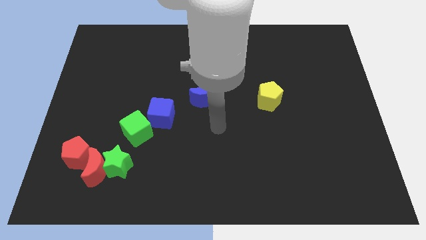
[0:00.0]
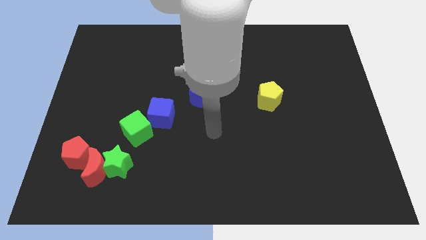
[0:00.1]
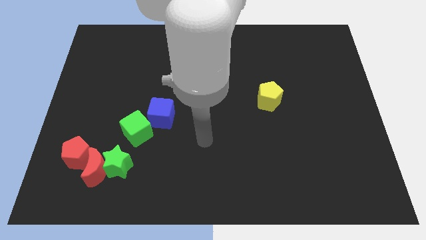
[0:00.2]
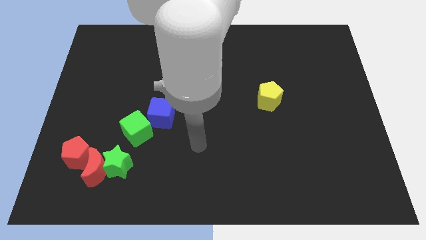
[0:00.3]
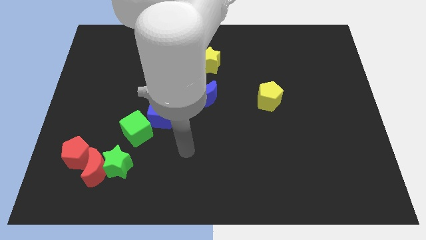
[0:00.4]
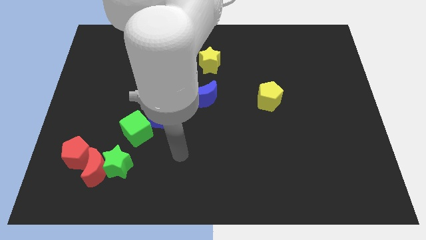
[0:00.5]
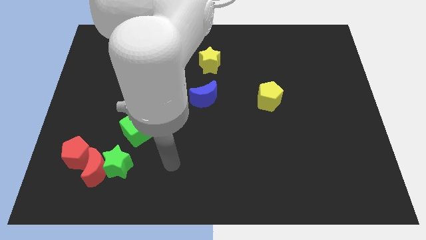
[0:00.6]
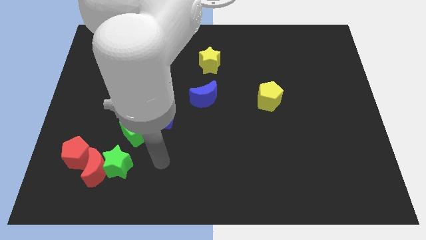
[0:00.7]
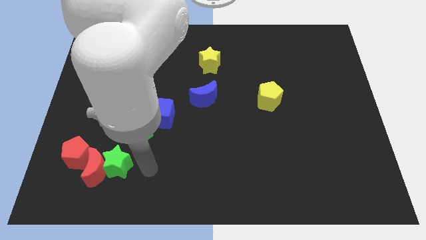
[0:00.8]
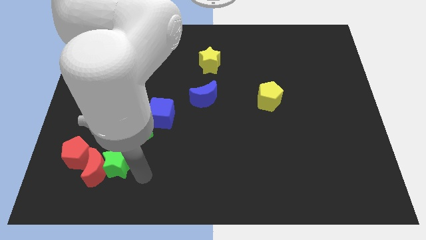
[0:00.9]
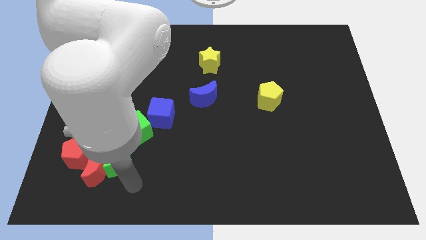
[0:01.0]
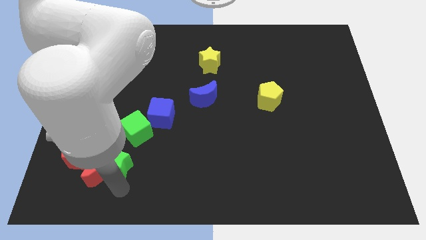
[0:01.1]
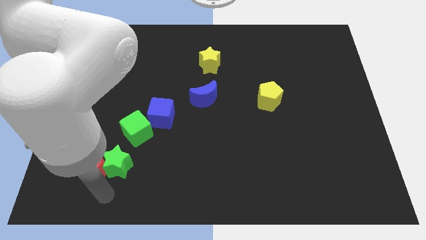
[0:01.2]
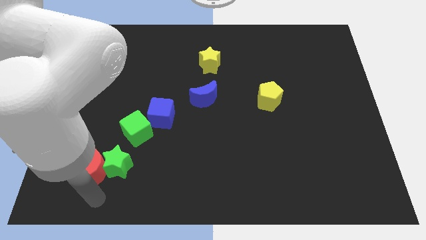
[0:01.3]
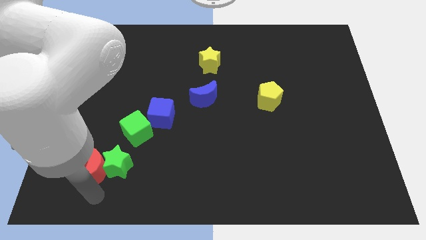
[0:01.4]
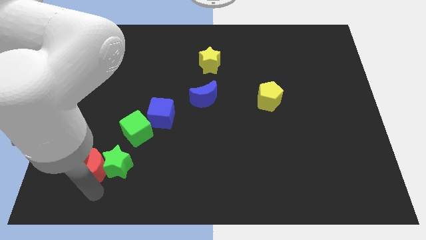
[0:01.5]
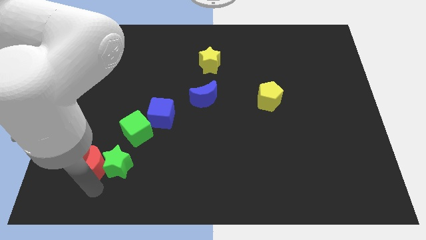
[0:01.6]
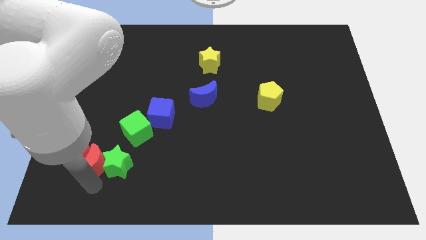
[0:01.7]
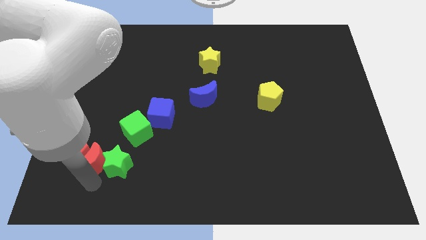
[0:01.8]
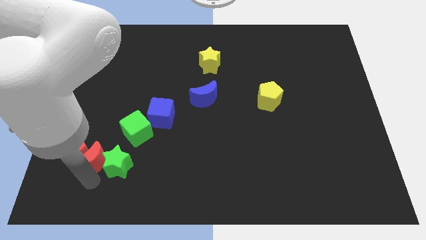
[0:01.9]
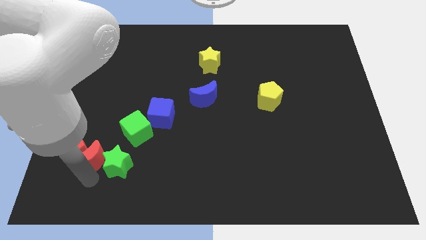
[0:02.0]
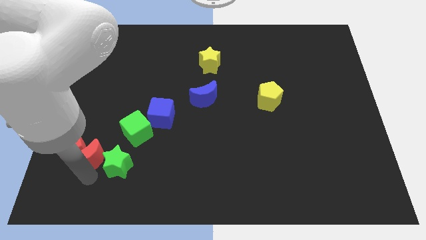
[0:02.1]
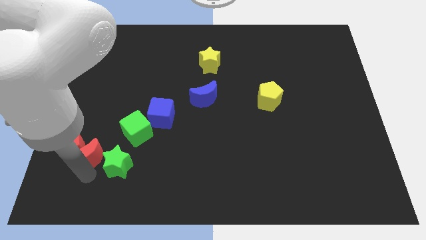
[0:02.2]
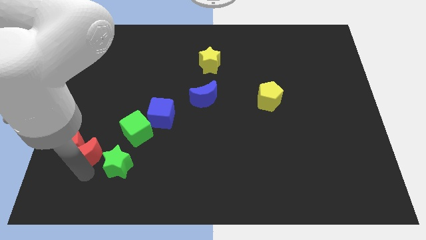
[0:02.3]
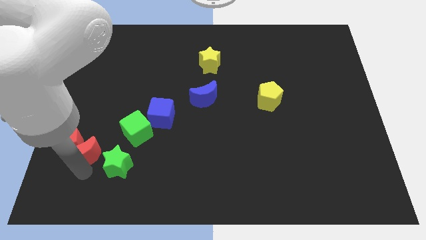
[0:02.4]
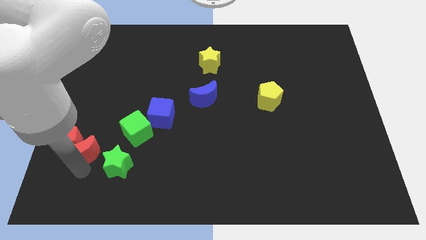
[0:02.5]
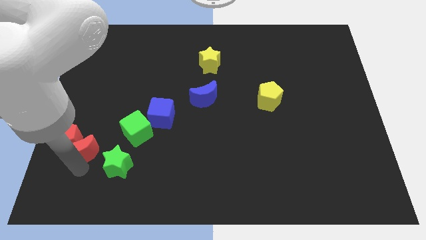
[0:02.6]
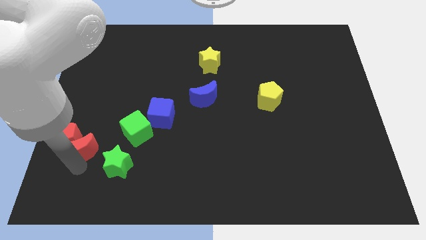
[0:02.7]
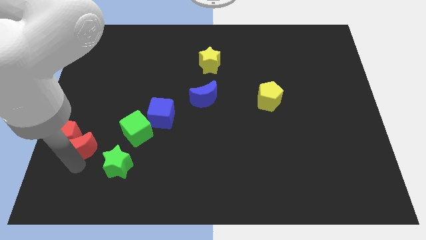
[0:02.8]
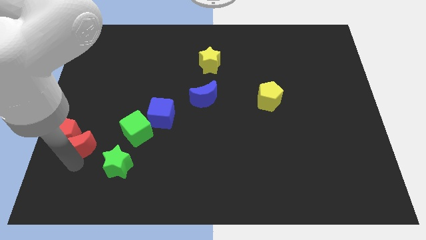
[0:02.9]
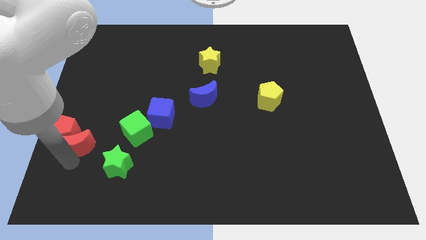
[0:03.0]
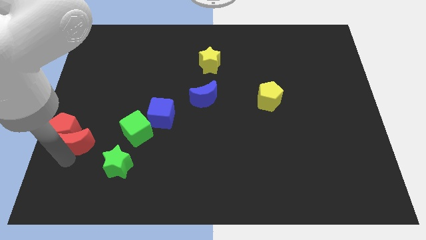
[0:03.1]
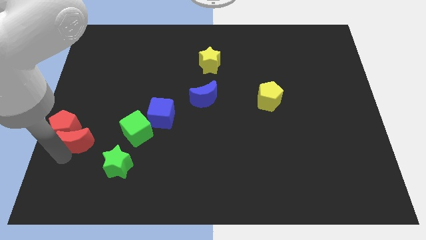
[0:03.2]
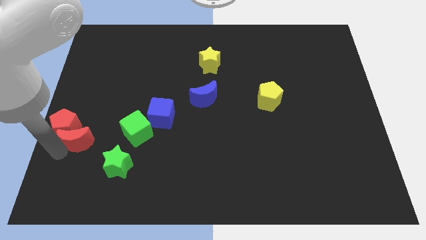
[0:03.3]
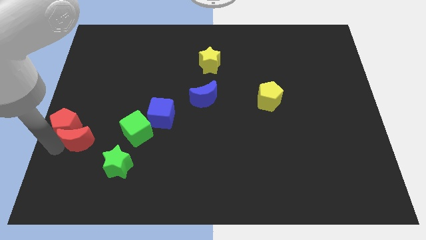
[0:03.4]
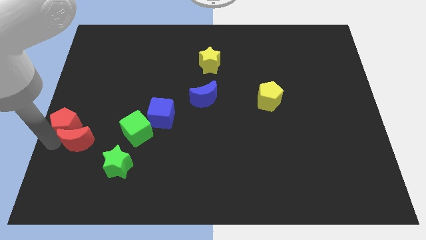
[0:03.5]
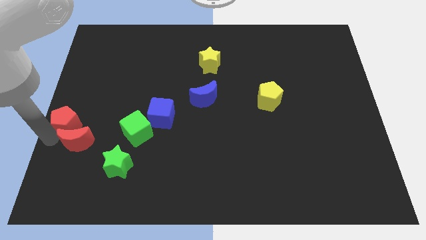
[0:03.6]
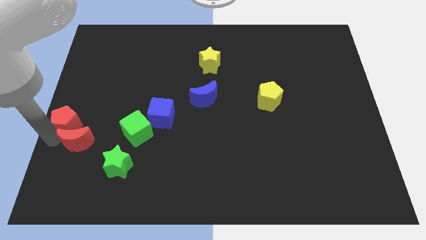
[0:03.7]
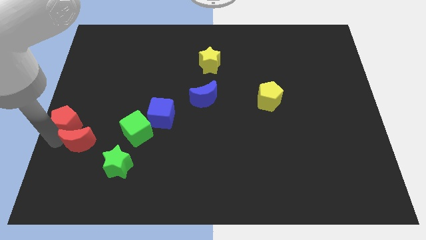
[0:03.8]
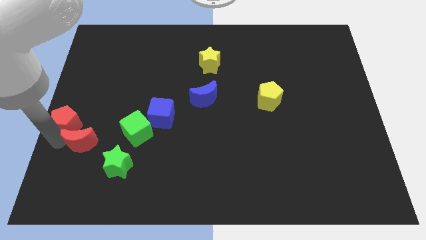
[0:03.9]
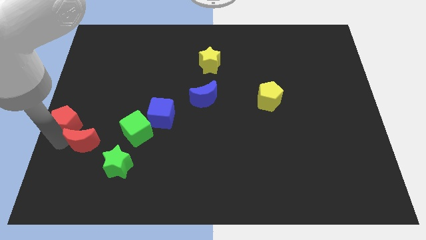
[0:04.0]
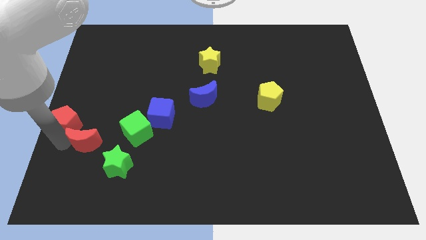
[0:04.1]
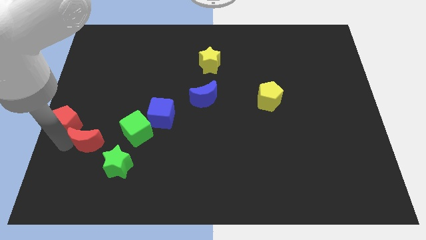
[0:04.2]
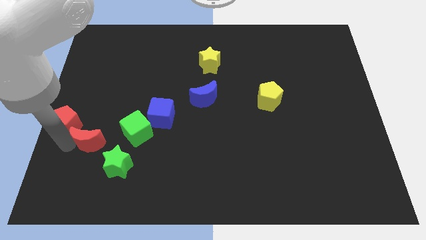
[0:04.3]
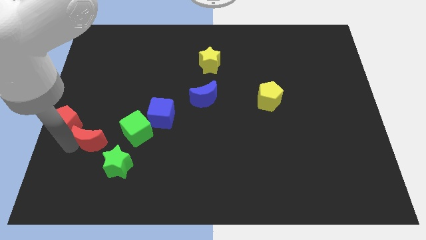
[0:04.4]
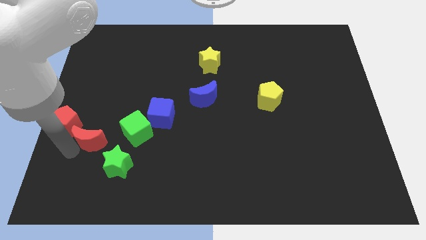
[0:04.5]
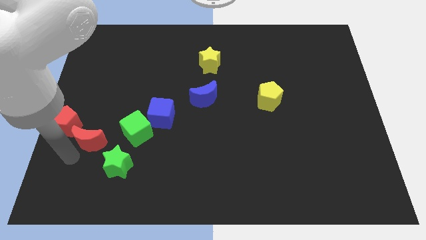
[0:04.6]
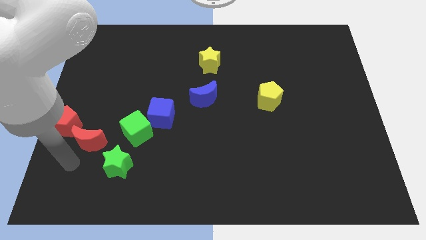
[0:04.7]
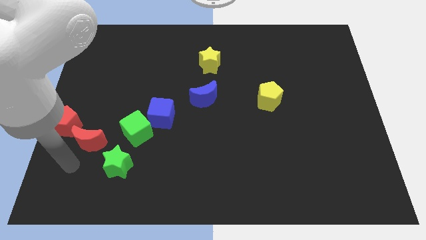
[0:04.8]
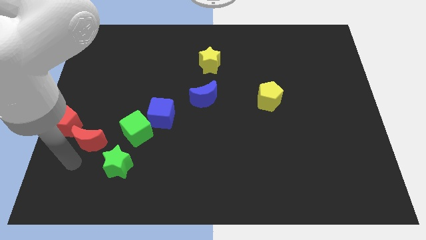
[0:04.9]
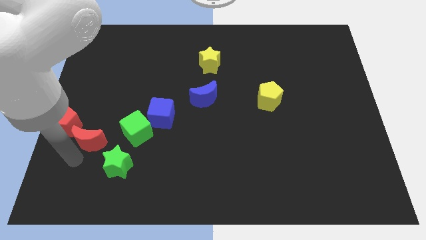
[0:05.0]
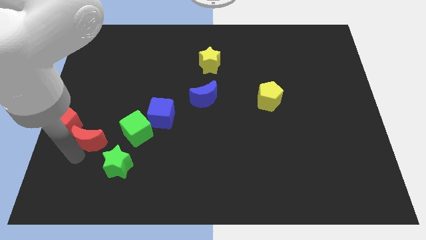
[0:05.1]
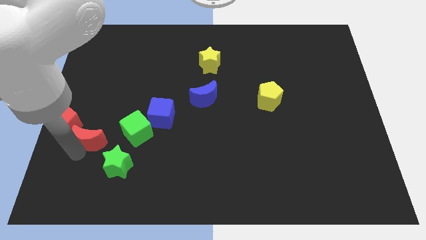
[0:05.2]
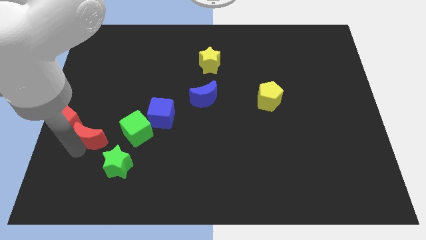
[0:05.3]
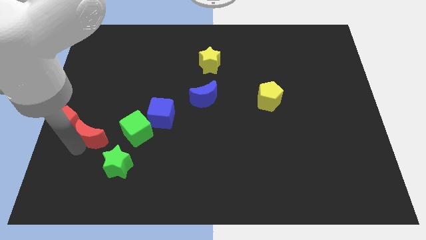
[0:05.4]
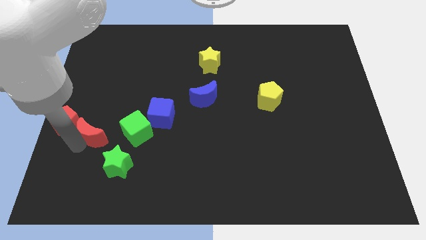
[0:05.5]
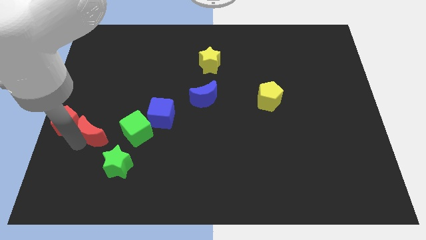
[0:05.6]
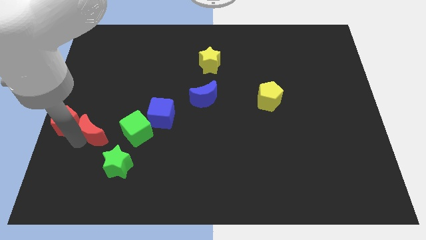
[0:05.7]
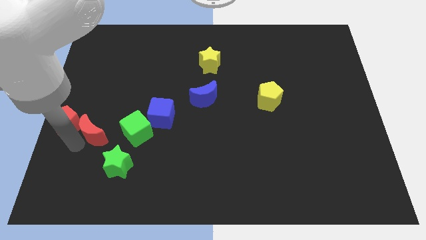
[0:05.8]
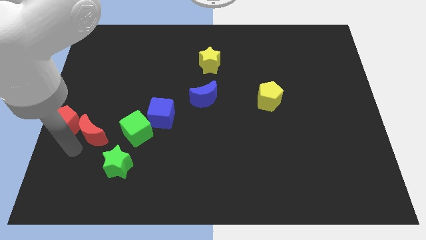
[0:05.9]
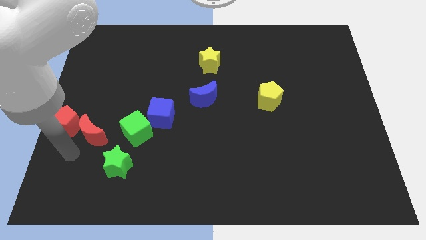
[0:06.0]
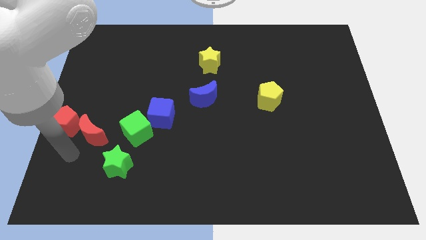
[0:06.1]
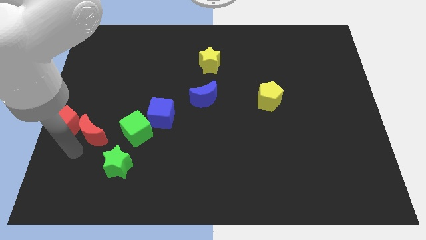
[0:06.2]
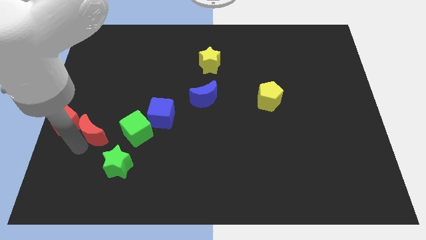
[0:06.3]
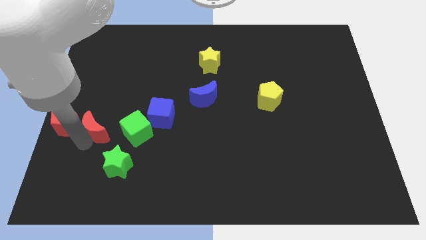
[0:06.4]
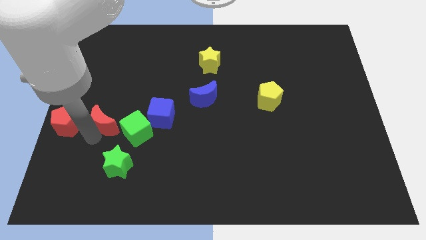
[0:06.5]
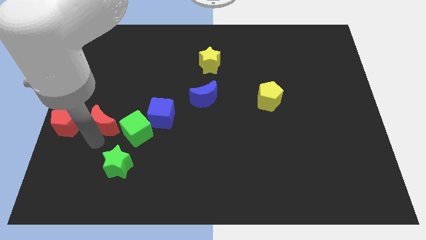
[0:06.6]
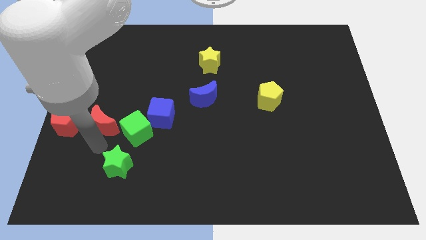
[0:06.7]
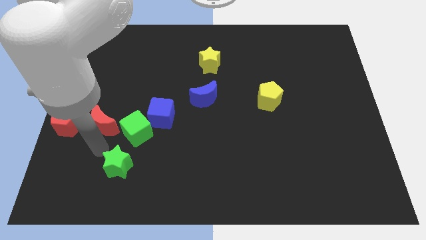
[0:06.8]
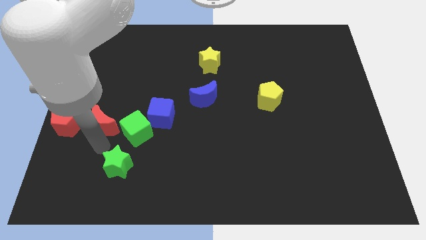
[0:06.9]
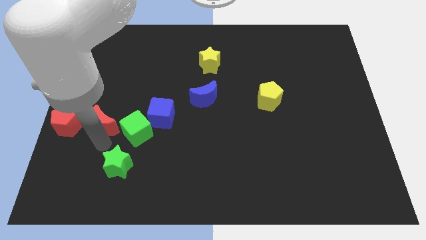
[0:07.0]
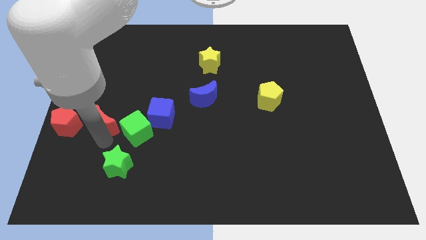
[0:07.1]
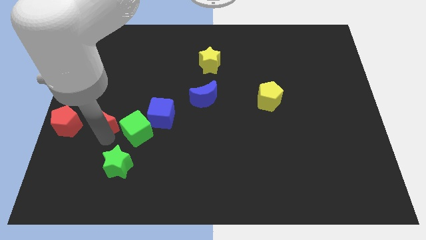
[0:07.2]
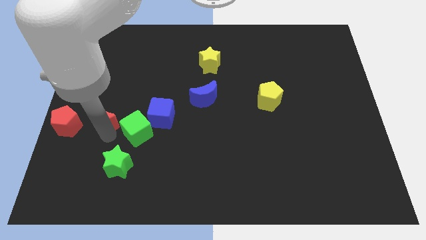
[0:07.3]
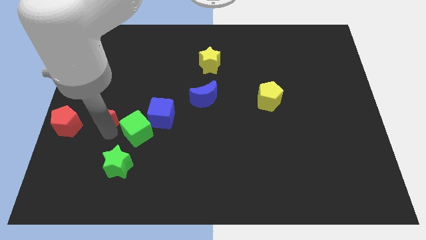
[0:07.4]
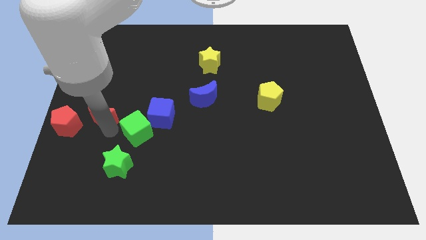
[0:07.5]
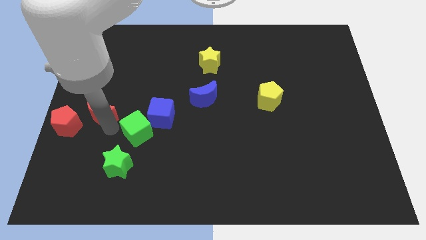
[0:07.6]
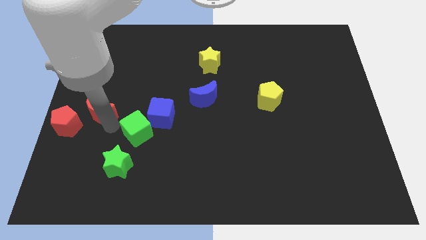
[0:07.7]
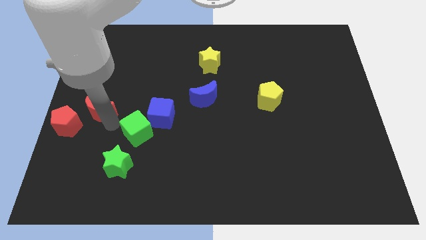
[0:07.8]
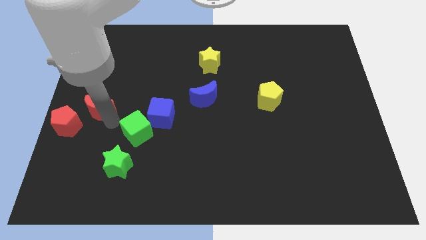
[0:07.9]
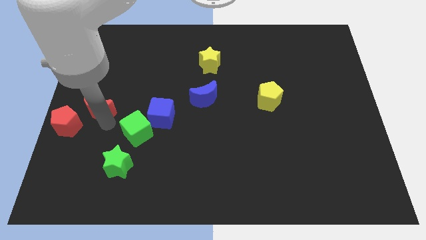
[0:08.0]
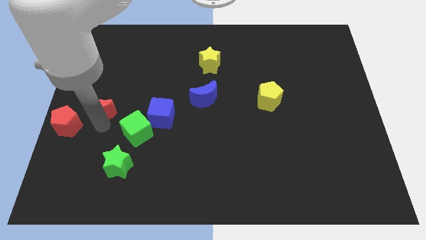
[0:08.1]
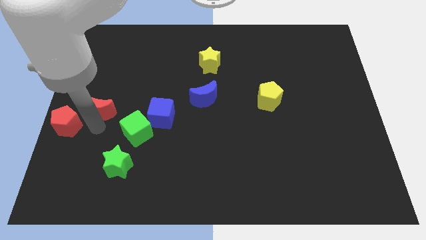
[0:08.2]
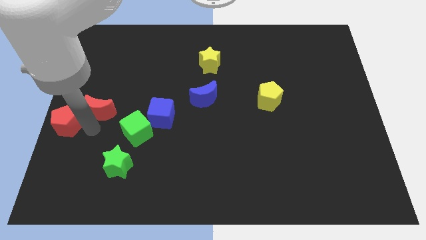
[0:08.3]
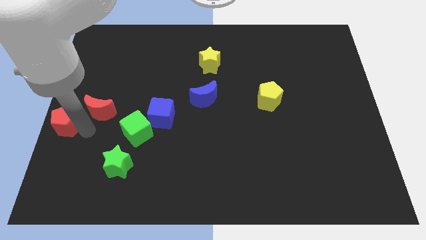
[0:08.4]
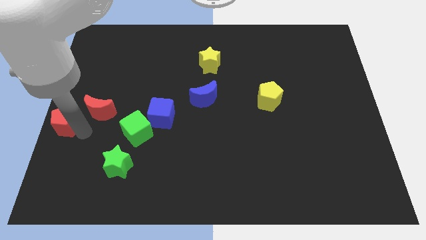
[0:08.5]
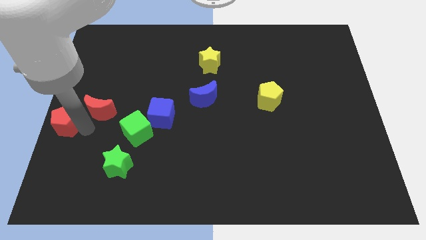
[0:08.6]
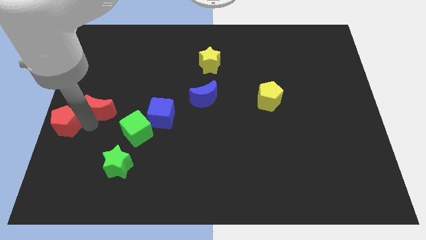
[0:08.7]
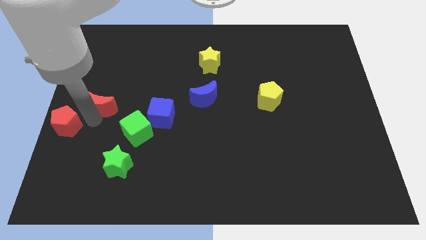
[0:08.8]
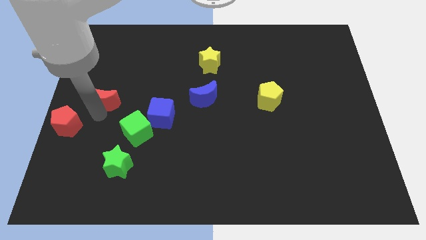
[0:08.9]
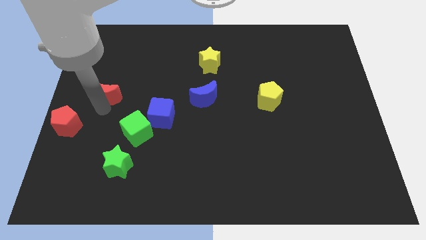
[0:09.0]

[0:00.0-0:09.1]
slide the red moon upwards
